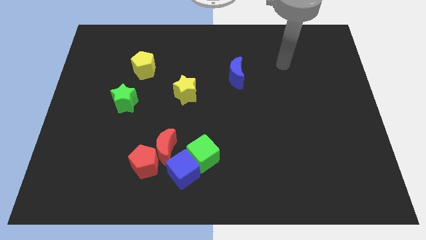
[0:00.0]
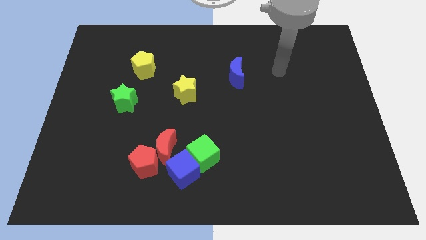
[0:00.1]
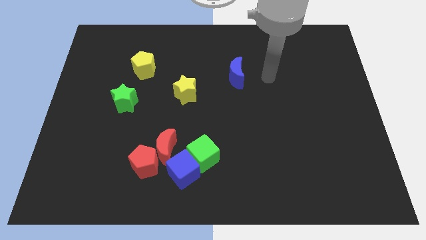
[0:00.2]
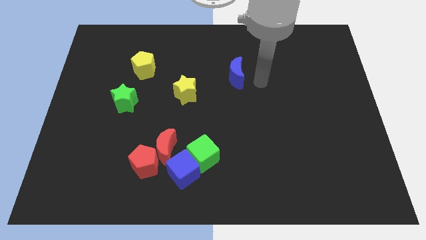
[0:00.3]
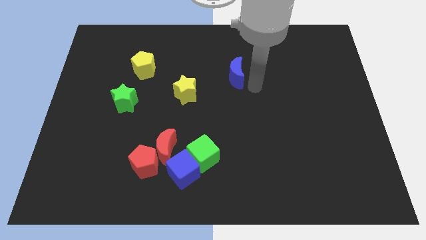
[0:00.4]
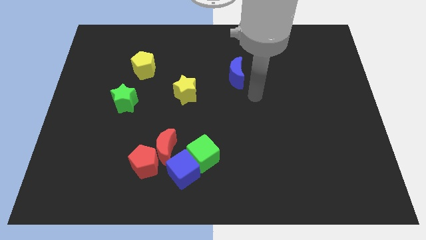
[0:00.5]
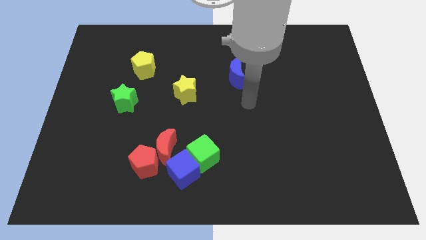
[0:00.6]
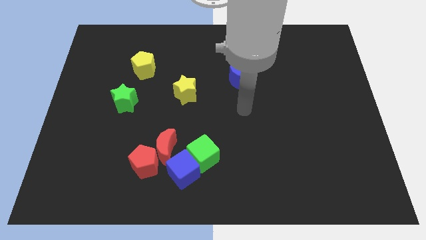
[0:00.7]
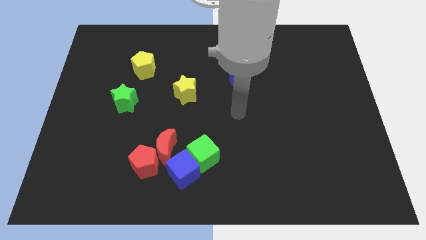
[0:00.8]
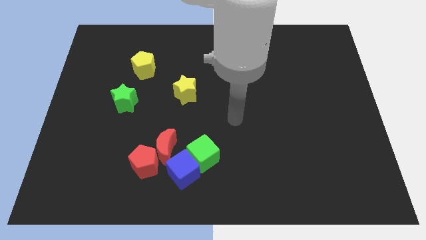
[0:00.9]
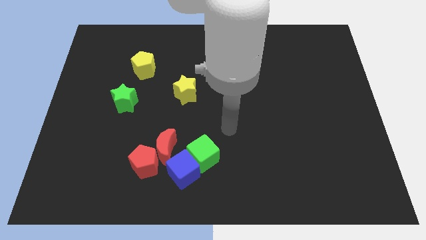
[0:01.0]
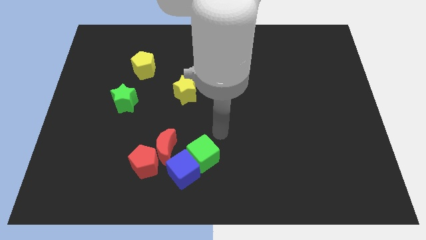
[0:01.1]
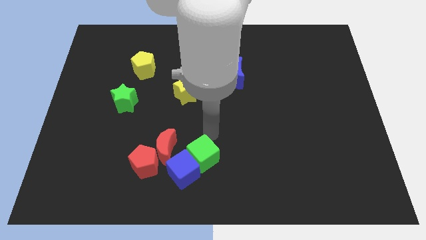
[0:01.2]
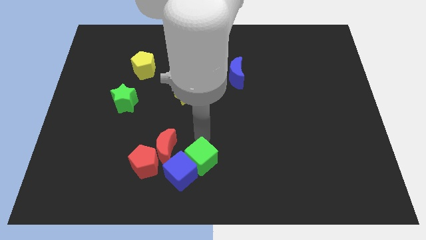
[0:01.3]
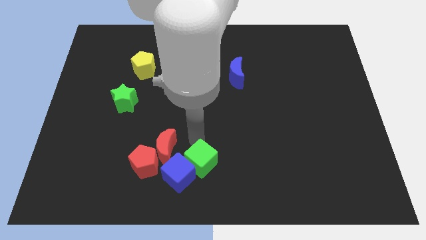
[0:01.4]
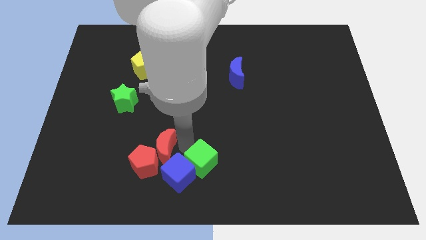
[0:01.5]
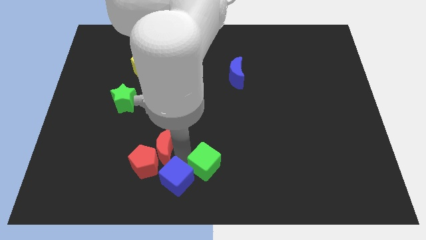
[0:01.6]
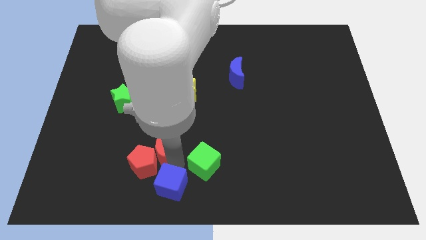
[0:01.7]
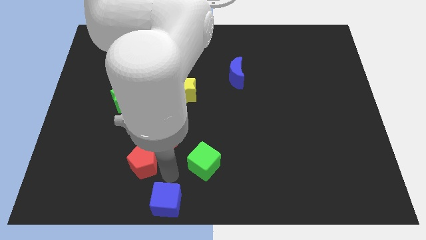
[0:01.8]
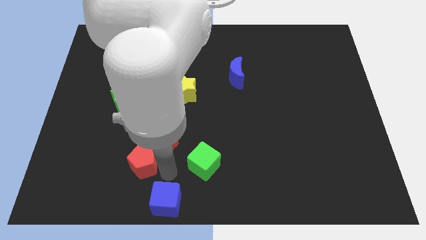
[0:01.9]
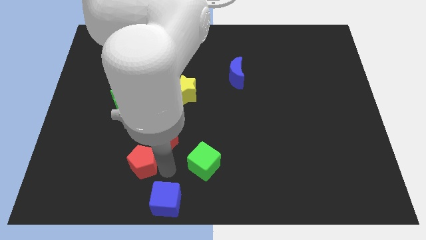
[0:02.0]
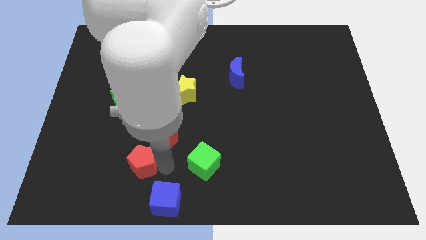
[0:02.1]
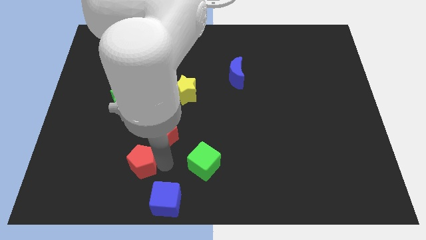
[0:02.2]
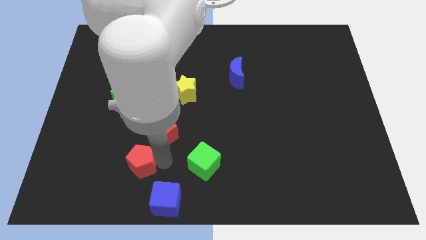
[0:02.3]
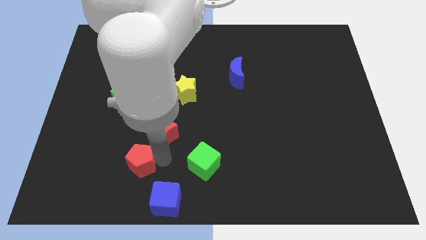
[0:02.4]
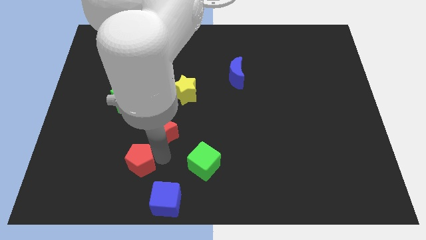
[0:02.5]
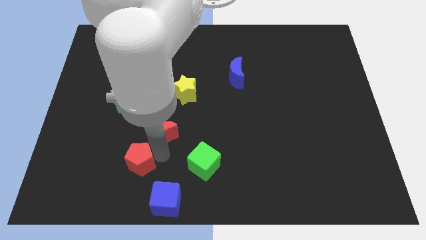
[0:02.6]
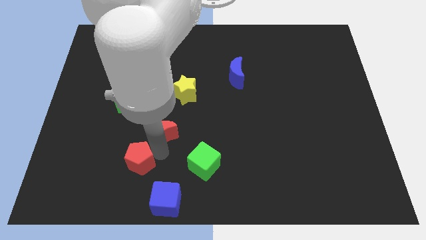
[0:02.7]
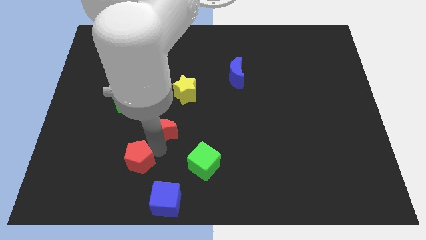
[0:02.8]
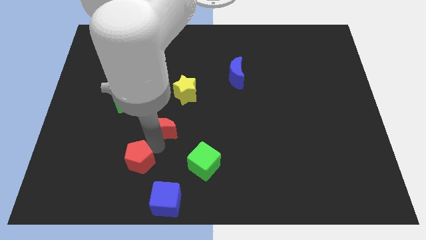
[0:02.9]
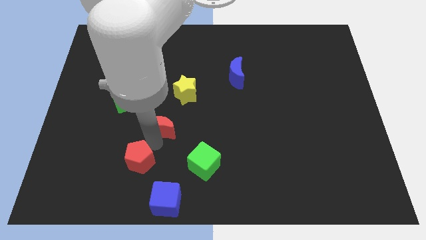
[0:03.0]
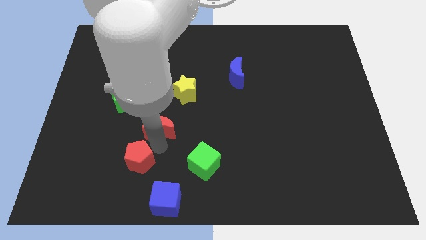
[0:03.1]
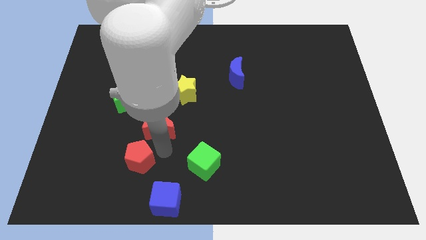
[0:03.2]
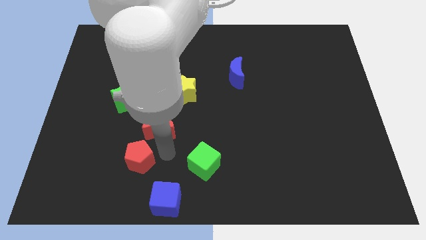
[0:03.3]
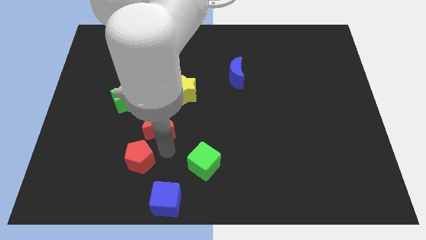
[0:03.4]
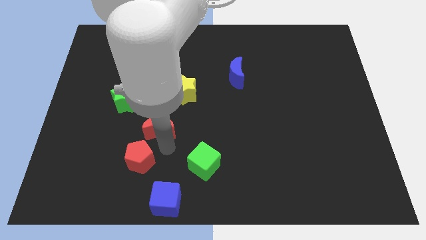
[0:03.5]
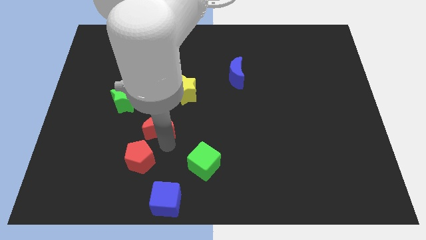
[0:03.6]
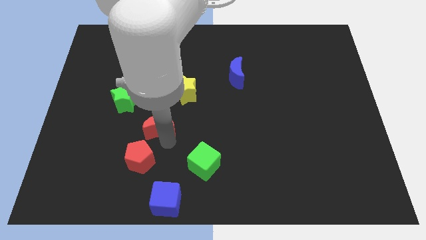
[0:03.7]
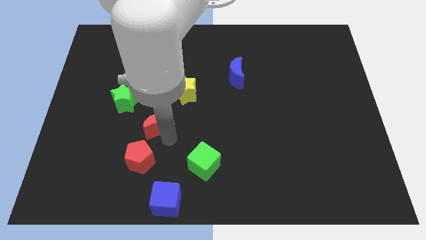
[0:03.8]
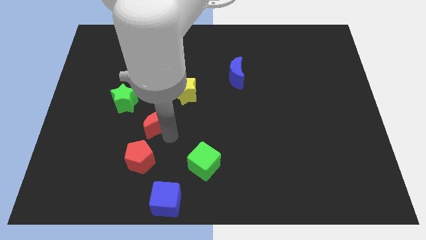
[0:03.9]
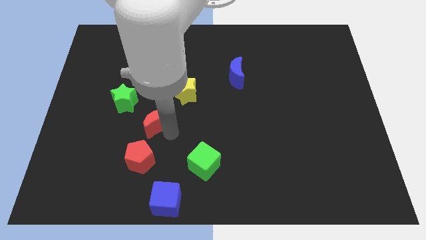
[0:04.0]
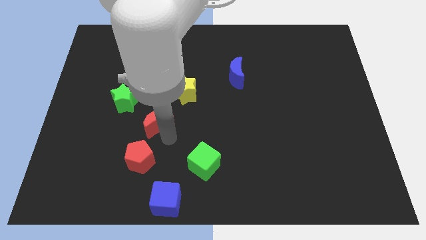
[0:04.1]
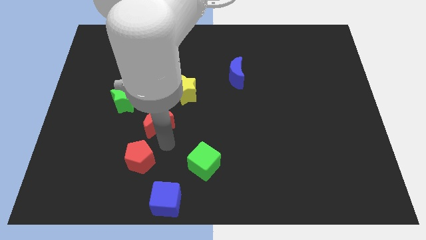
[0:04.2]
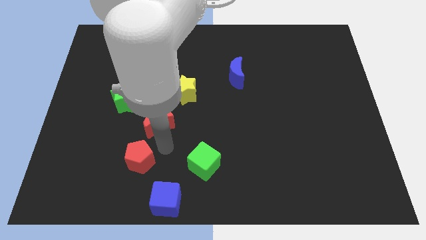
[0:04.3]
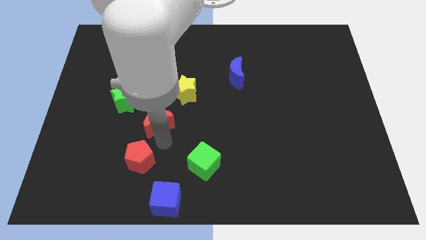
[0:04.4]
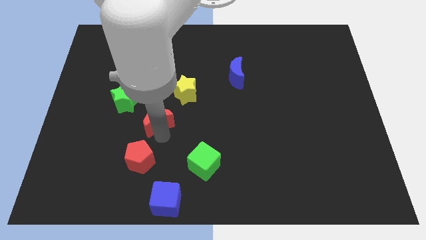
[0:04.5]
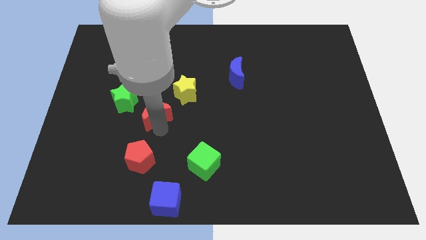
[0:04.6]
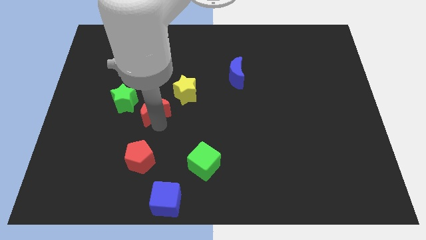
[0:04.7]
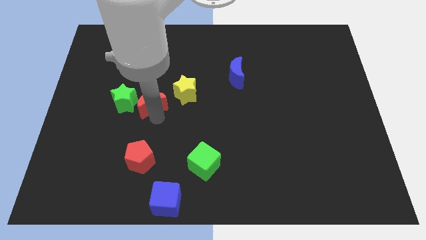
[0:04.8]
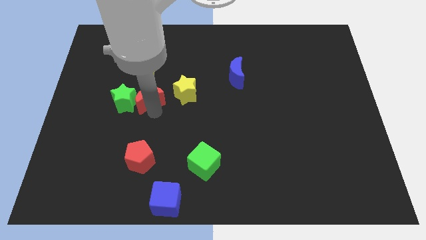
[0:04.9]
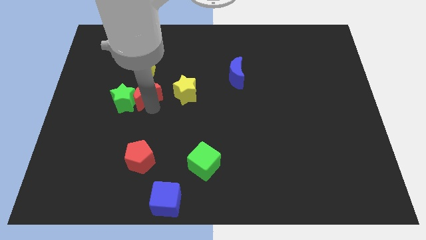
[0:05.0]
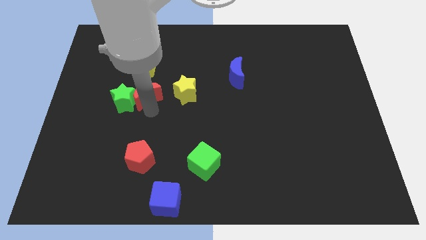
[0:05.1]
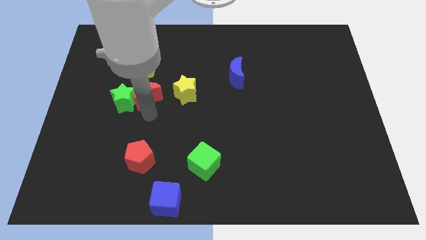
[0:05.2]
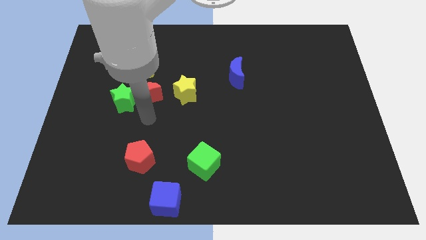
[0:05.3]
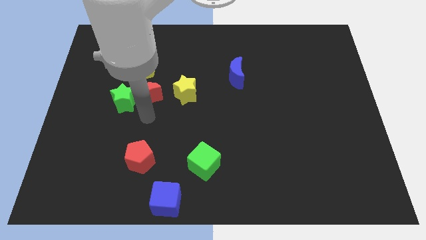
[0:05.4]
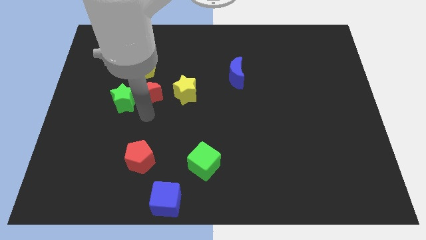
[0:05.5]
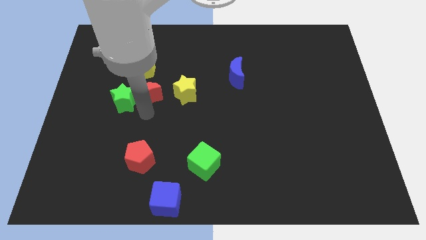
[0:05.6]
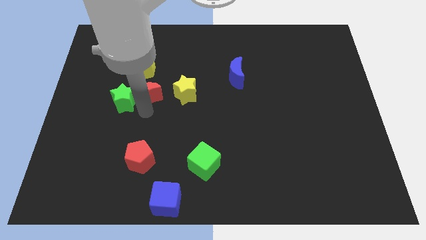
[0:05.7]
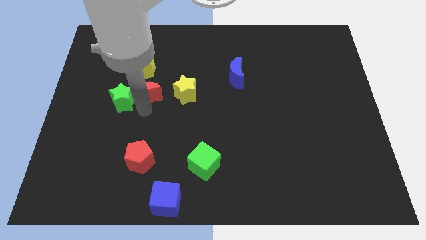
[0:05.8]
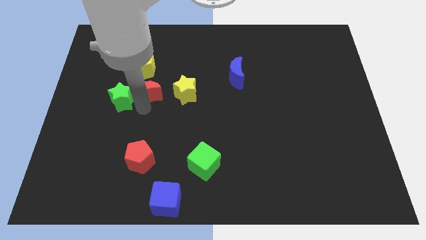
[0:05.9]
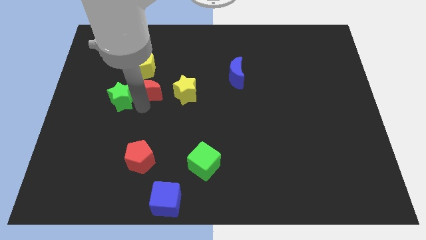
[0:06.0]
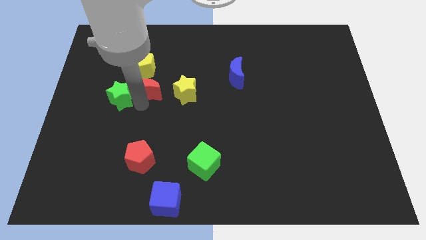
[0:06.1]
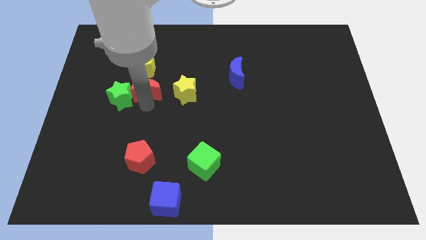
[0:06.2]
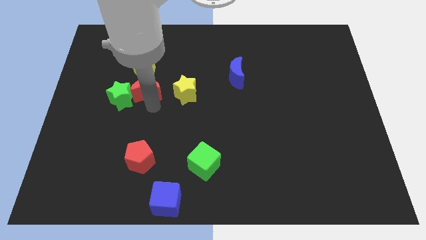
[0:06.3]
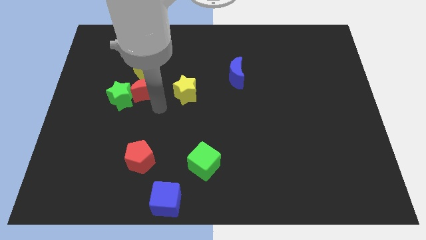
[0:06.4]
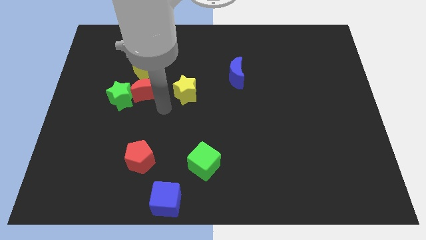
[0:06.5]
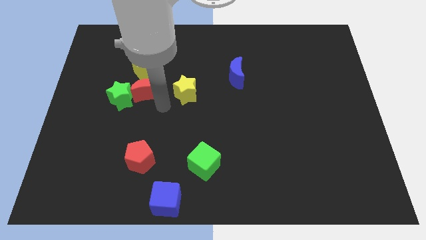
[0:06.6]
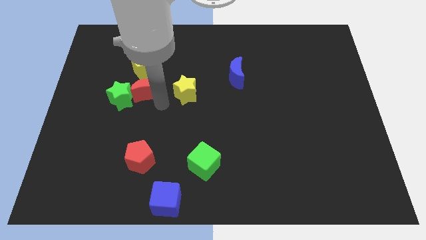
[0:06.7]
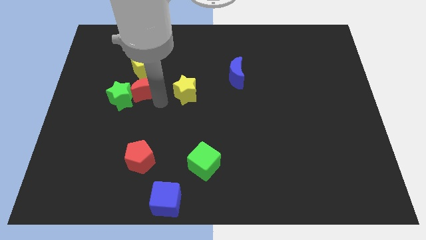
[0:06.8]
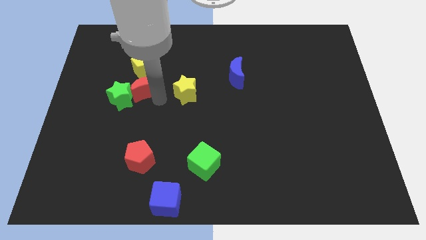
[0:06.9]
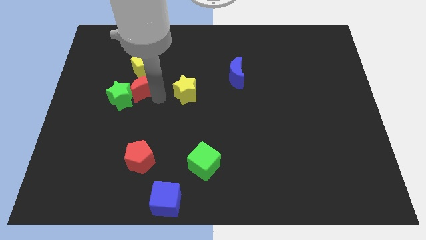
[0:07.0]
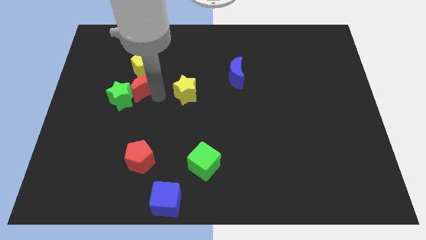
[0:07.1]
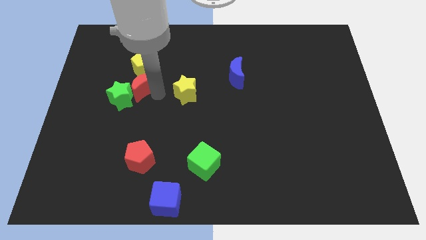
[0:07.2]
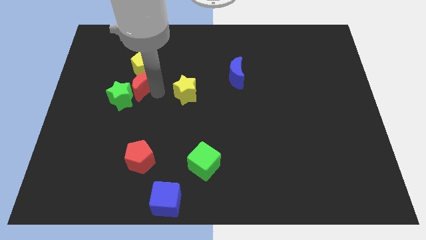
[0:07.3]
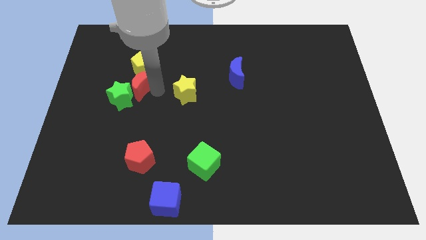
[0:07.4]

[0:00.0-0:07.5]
push the red moon above the green star
